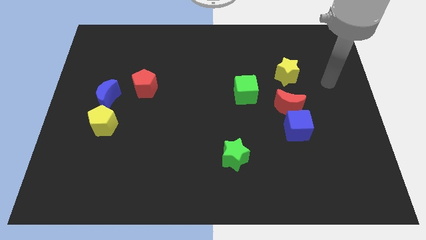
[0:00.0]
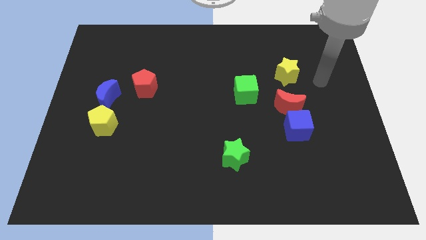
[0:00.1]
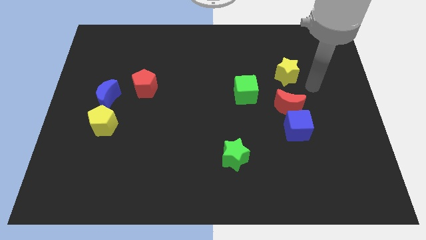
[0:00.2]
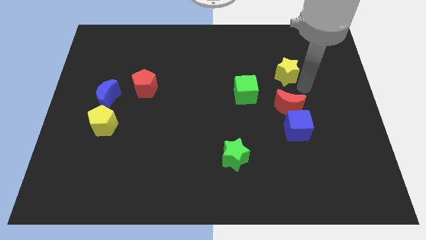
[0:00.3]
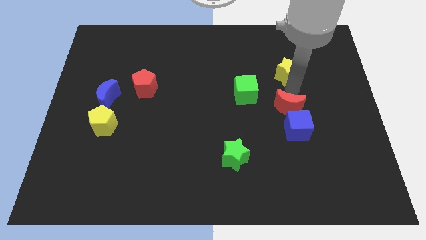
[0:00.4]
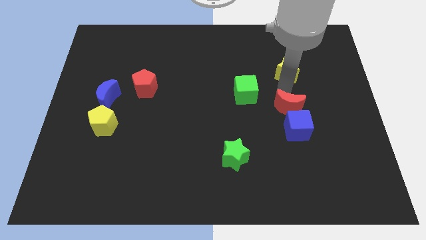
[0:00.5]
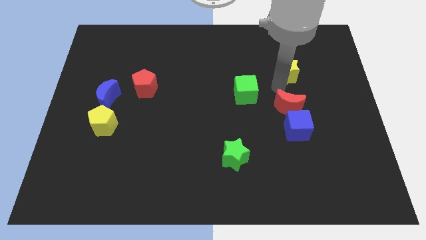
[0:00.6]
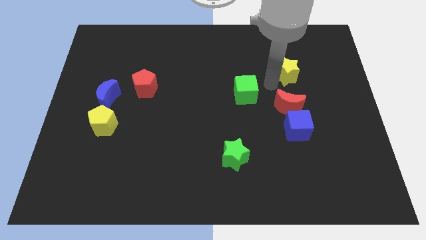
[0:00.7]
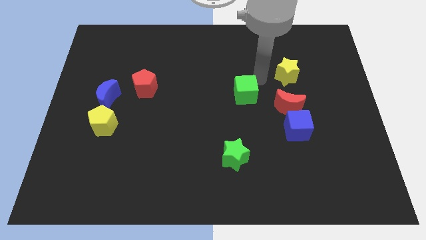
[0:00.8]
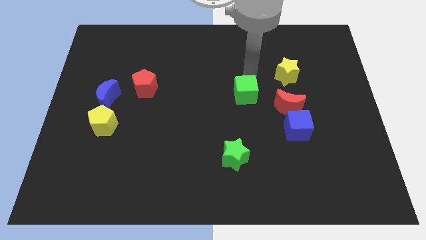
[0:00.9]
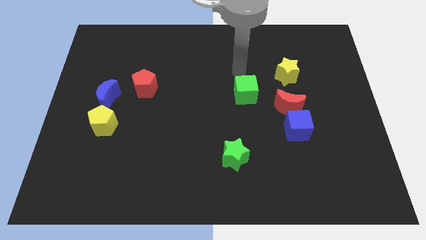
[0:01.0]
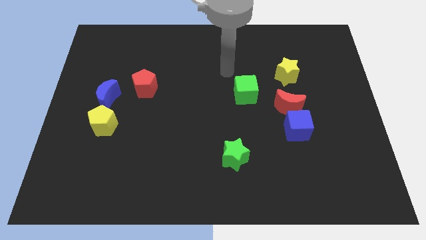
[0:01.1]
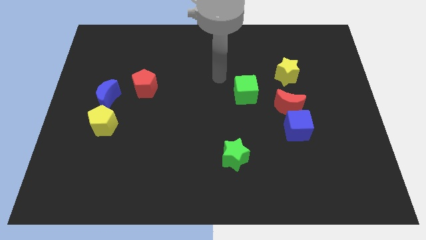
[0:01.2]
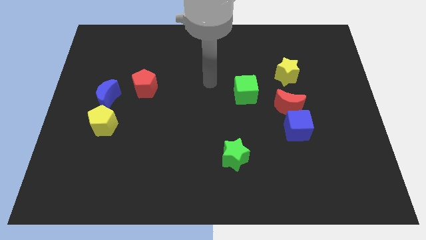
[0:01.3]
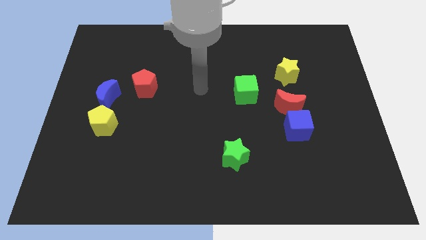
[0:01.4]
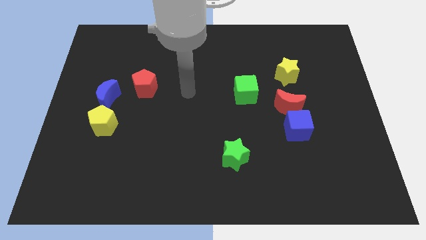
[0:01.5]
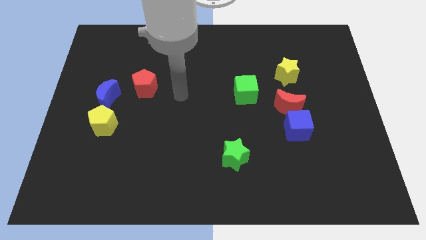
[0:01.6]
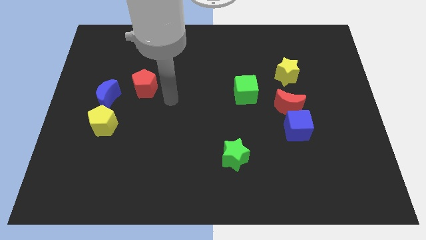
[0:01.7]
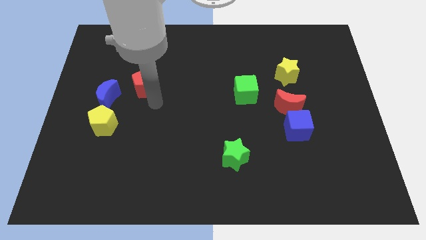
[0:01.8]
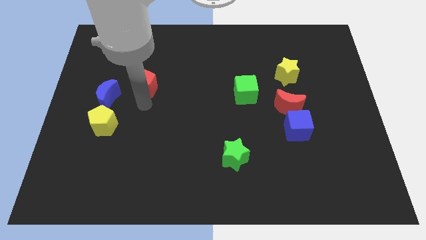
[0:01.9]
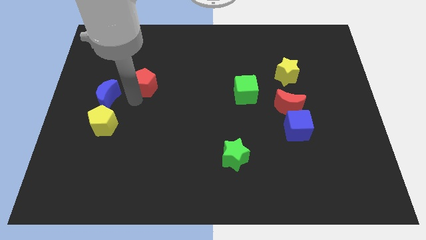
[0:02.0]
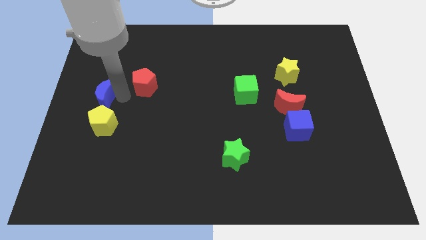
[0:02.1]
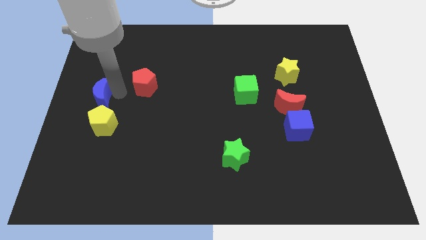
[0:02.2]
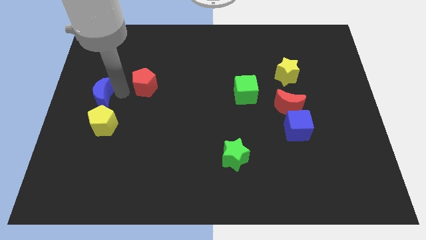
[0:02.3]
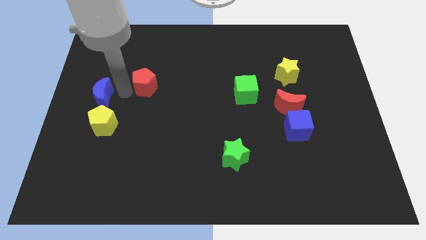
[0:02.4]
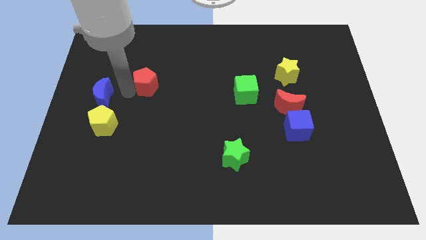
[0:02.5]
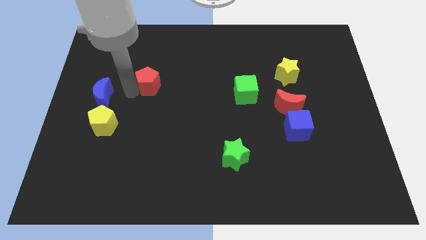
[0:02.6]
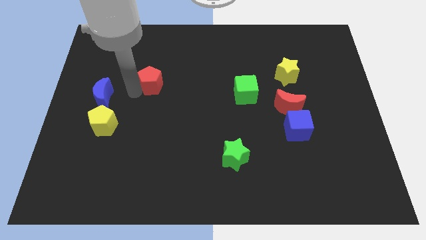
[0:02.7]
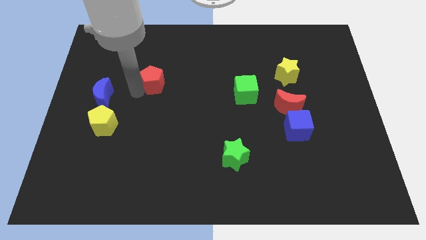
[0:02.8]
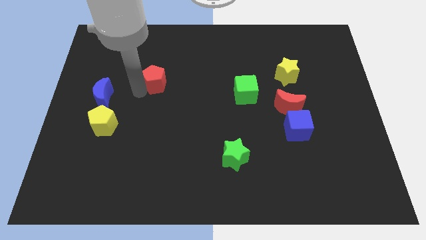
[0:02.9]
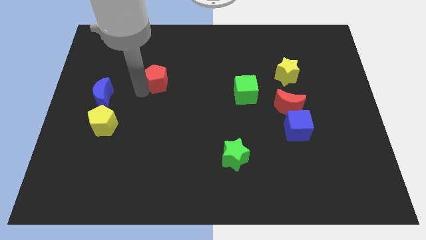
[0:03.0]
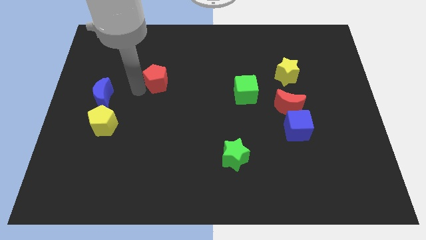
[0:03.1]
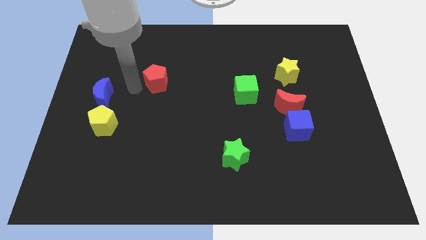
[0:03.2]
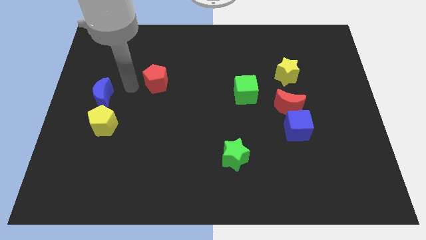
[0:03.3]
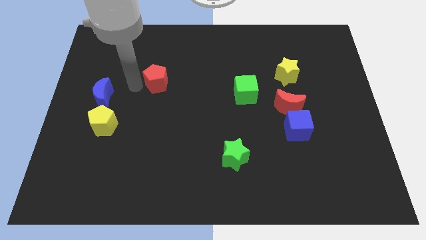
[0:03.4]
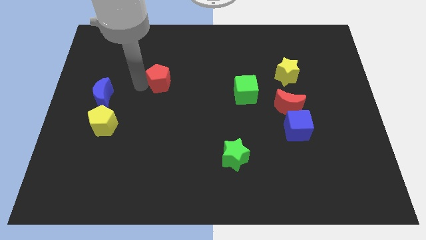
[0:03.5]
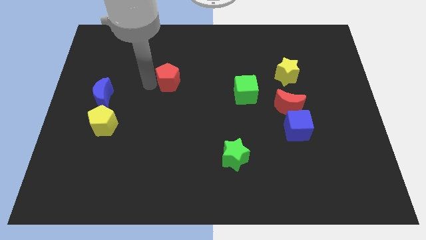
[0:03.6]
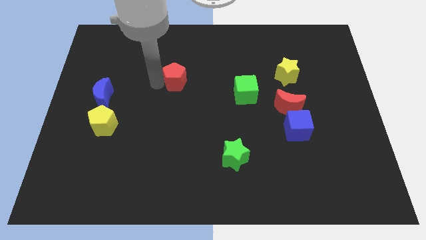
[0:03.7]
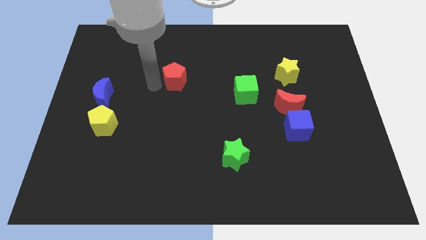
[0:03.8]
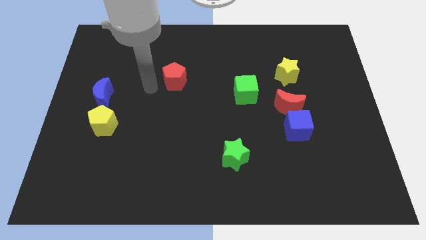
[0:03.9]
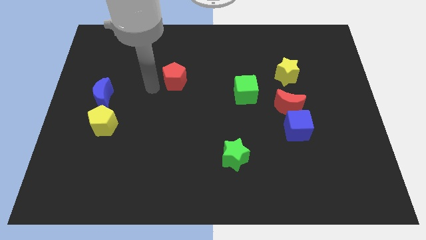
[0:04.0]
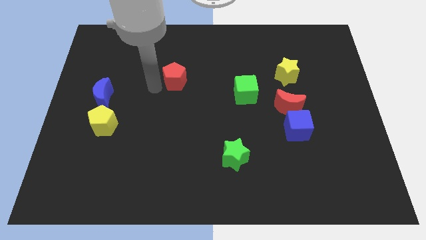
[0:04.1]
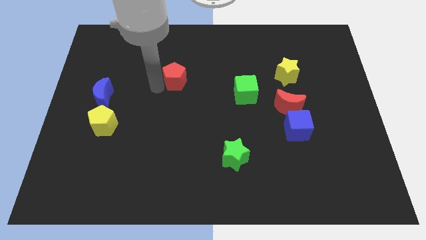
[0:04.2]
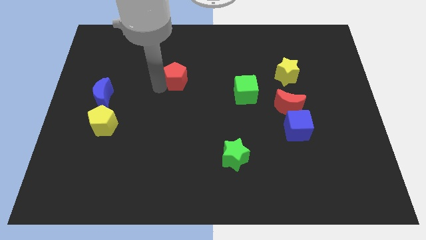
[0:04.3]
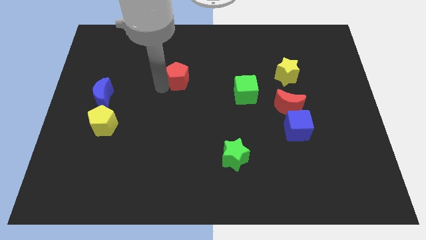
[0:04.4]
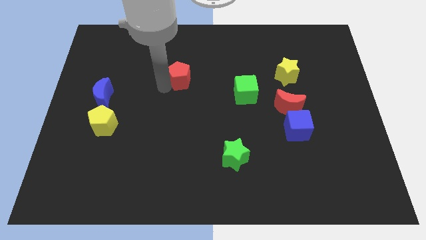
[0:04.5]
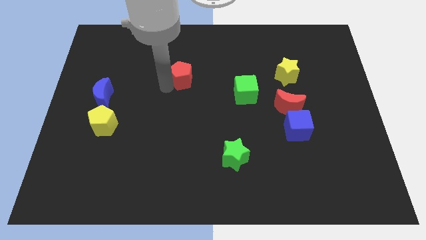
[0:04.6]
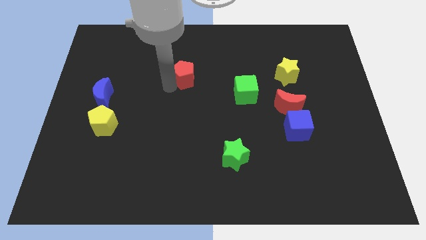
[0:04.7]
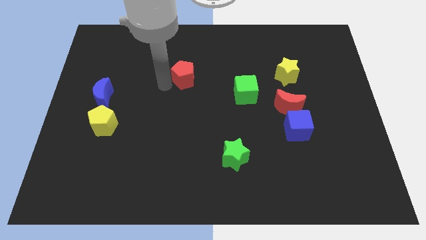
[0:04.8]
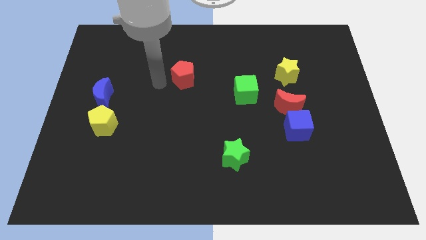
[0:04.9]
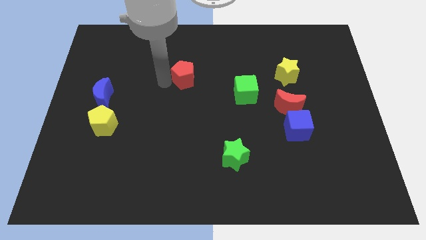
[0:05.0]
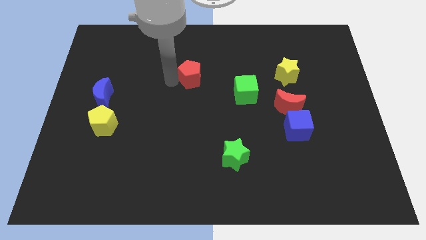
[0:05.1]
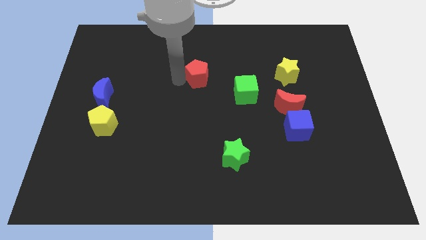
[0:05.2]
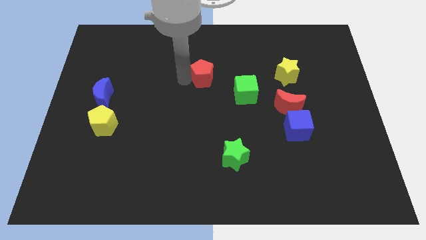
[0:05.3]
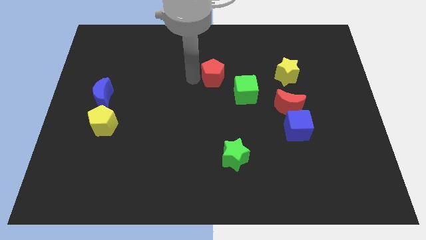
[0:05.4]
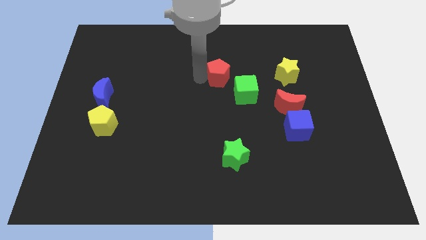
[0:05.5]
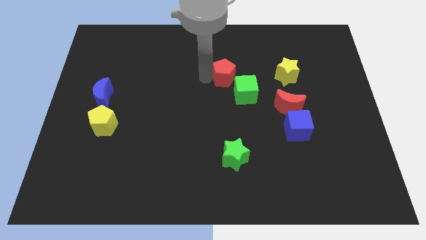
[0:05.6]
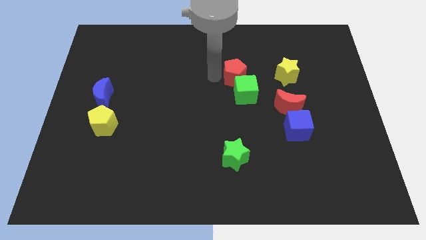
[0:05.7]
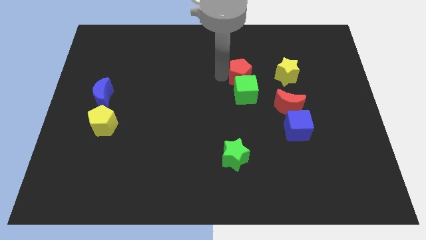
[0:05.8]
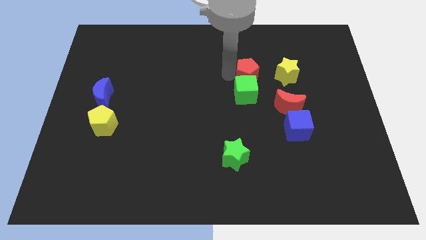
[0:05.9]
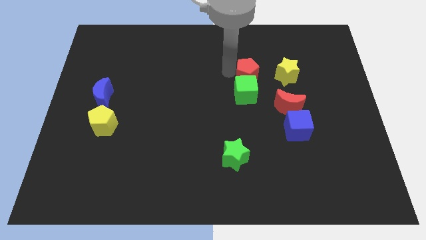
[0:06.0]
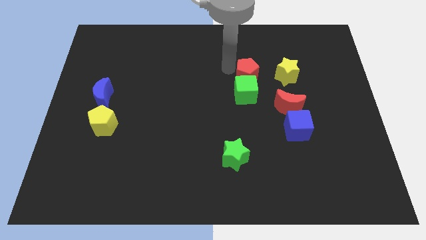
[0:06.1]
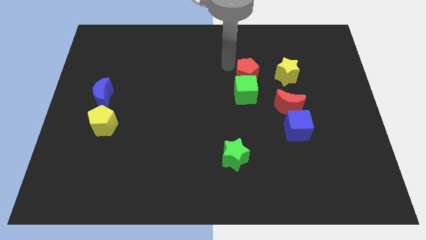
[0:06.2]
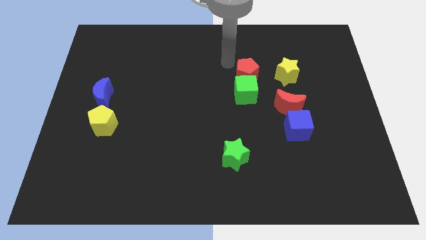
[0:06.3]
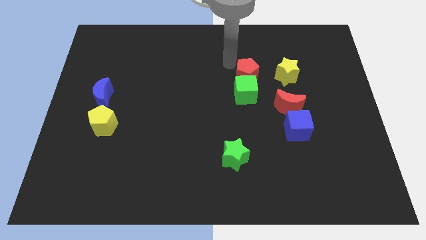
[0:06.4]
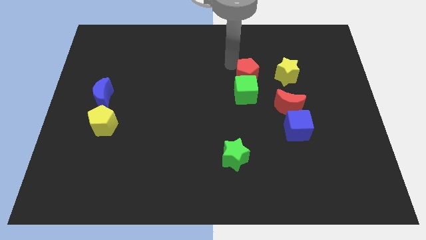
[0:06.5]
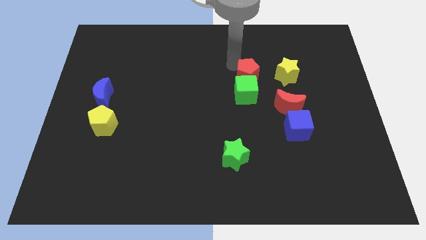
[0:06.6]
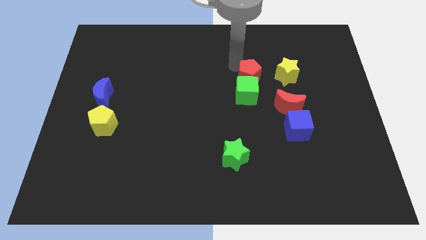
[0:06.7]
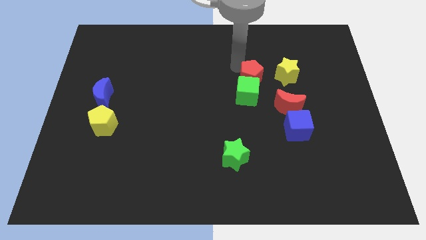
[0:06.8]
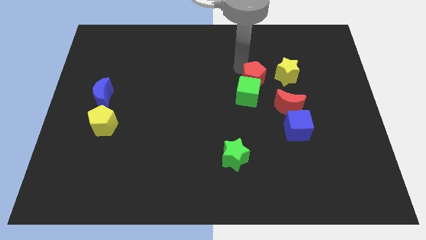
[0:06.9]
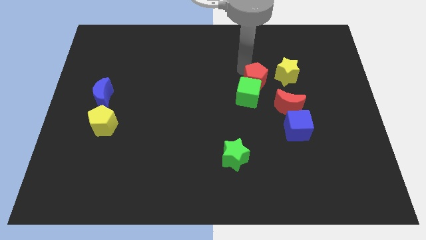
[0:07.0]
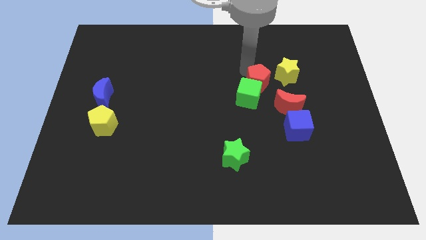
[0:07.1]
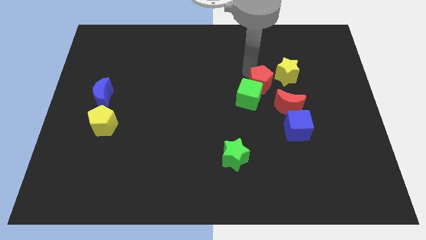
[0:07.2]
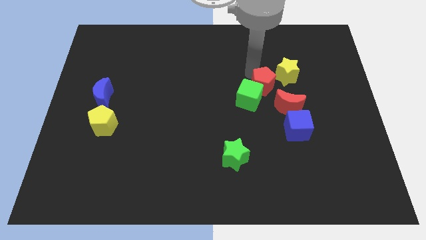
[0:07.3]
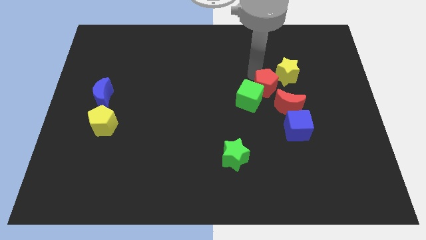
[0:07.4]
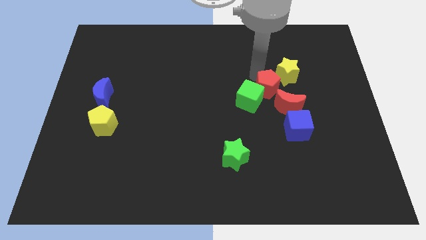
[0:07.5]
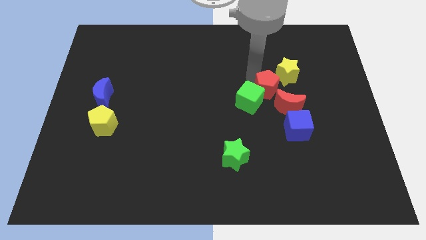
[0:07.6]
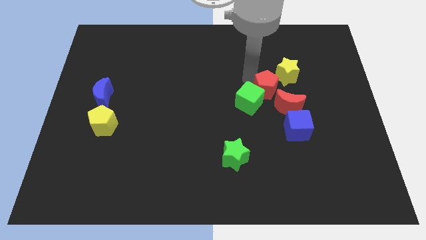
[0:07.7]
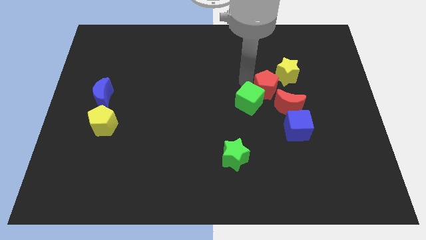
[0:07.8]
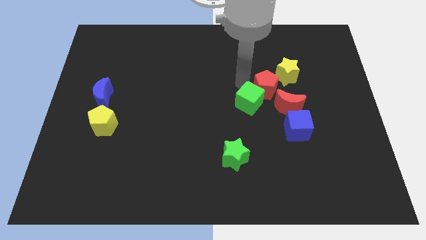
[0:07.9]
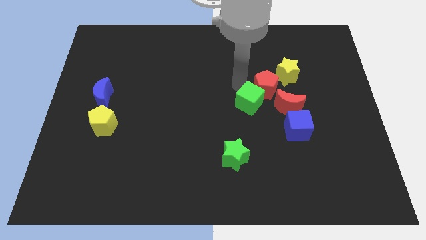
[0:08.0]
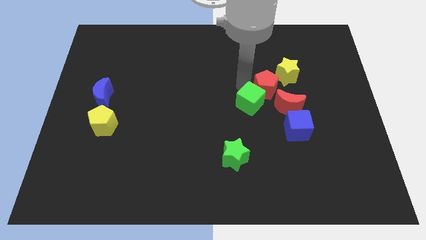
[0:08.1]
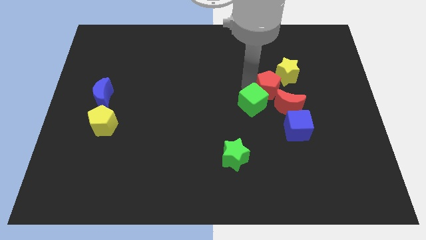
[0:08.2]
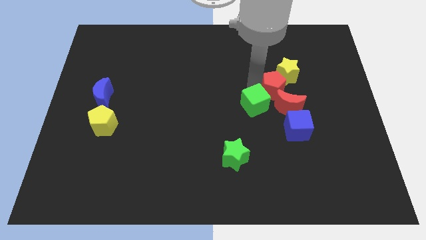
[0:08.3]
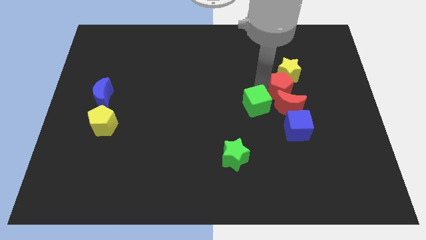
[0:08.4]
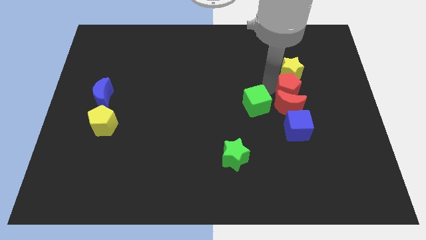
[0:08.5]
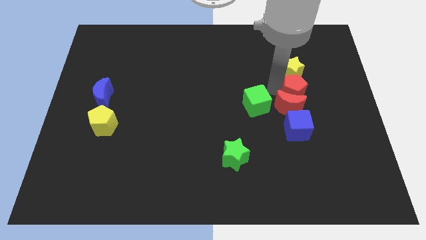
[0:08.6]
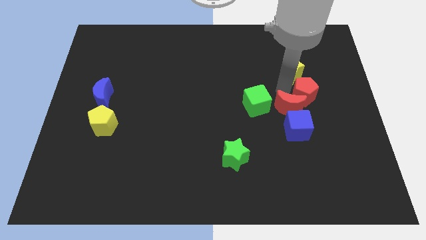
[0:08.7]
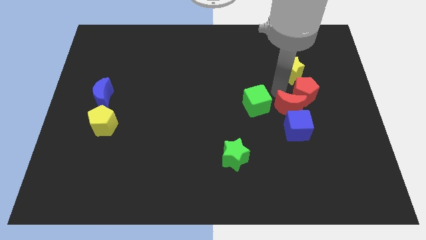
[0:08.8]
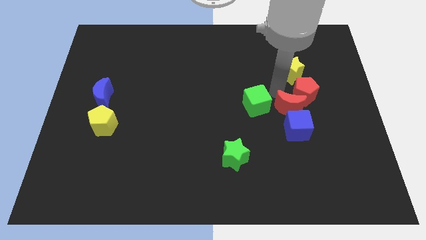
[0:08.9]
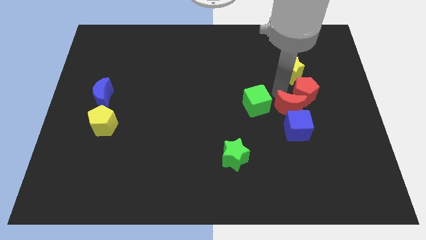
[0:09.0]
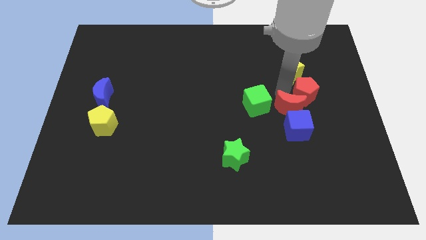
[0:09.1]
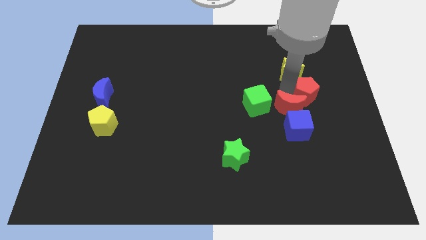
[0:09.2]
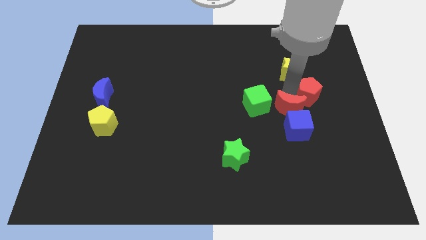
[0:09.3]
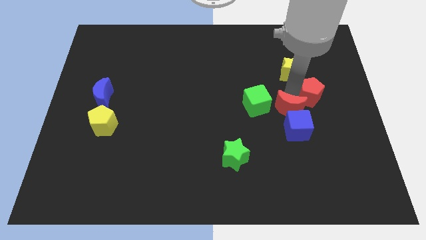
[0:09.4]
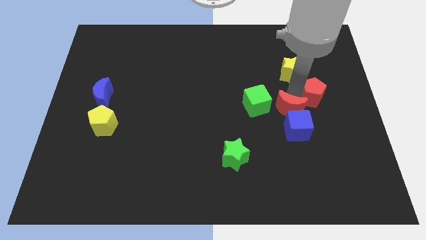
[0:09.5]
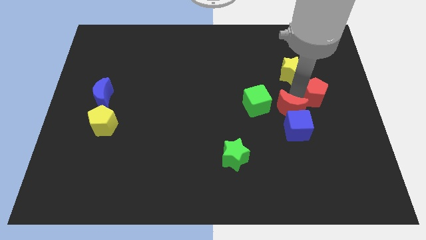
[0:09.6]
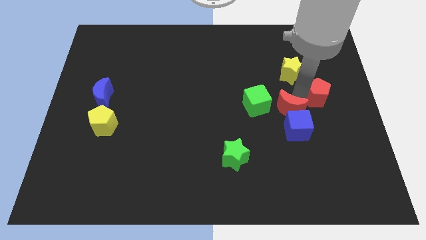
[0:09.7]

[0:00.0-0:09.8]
push the red pentagon to the right side
